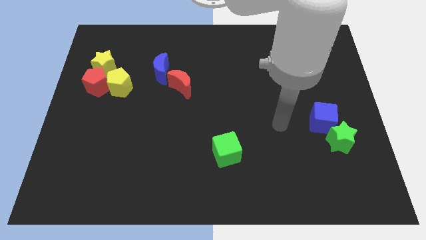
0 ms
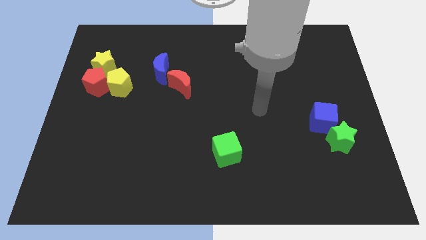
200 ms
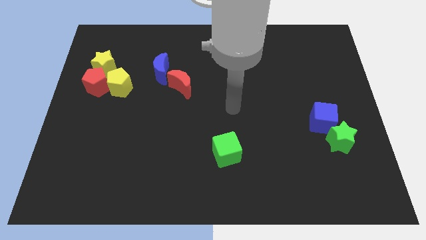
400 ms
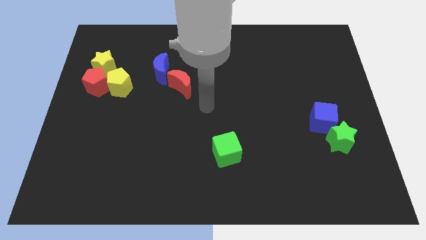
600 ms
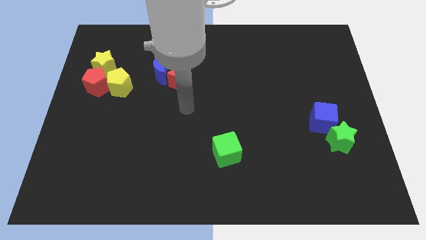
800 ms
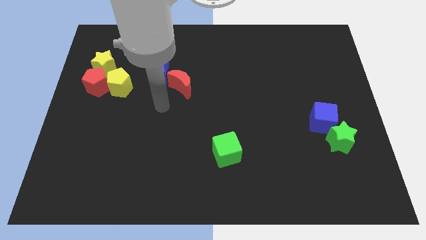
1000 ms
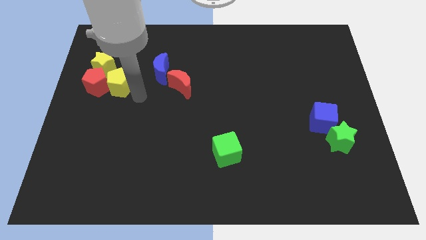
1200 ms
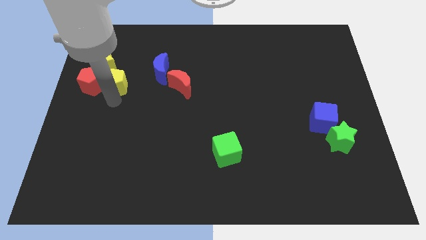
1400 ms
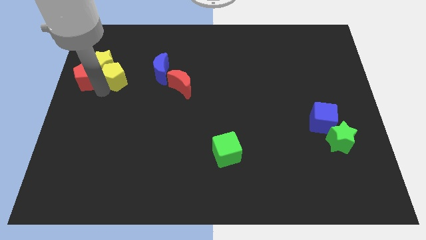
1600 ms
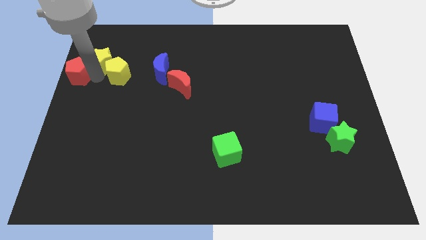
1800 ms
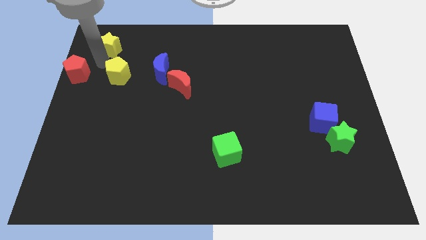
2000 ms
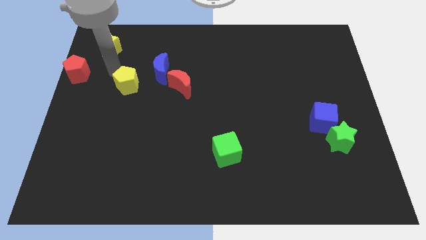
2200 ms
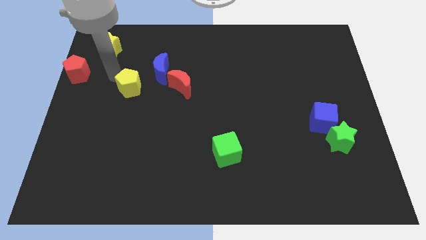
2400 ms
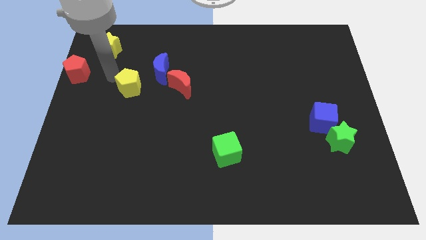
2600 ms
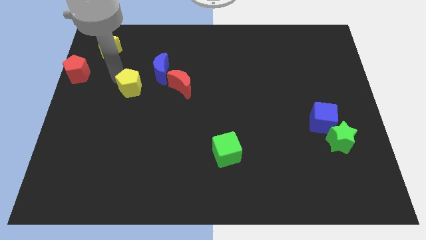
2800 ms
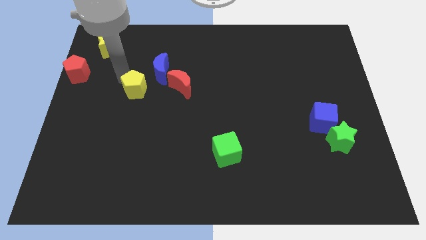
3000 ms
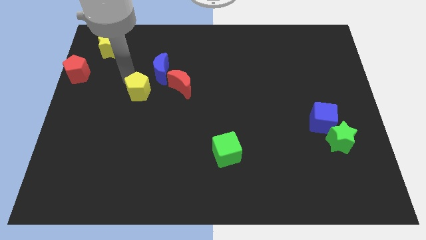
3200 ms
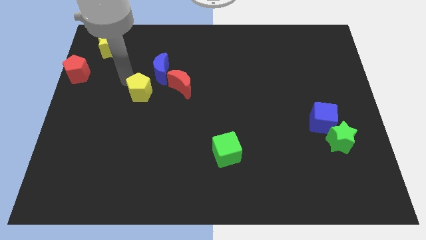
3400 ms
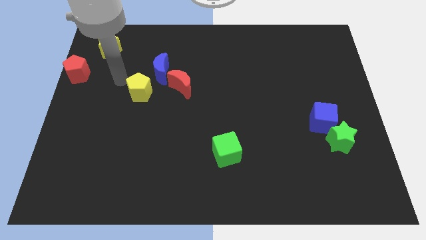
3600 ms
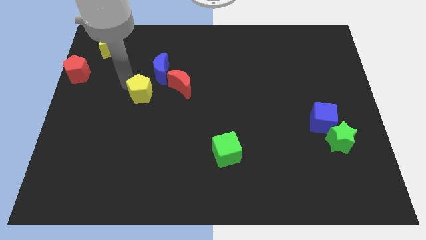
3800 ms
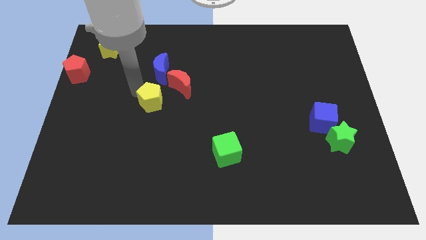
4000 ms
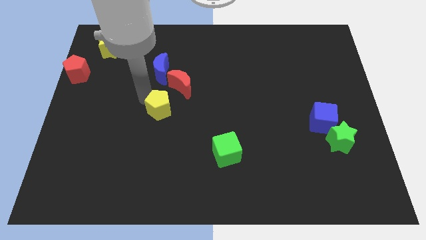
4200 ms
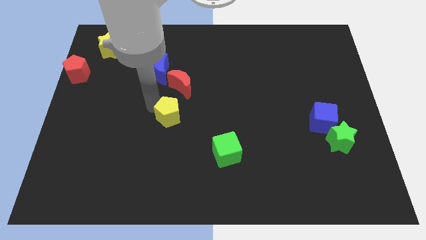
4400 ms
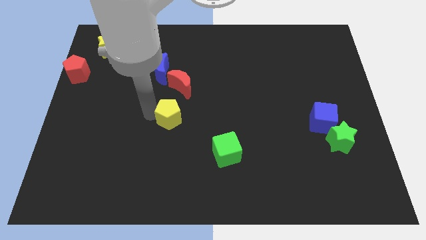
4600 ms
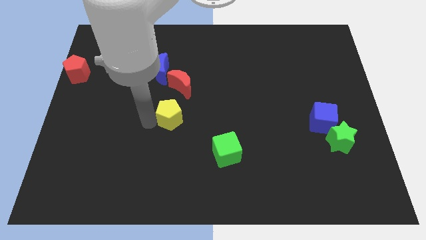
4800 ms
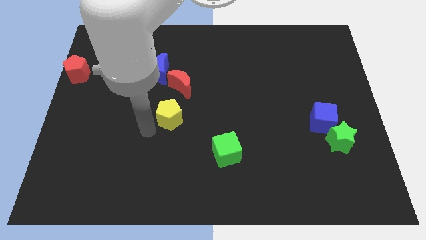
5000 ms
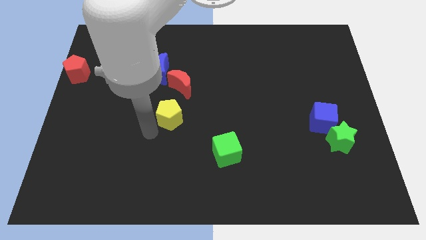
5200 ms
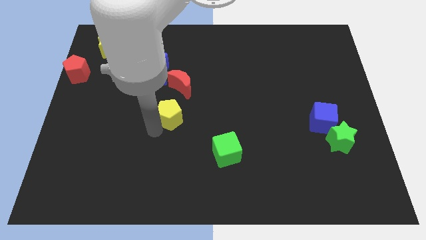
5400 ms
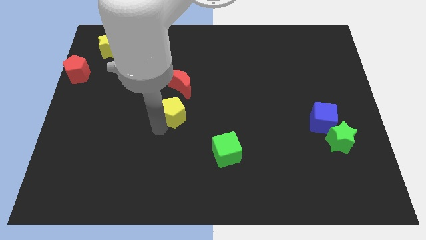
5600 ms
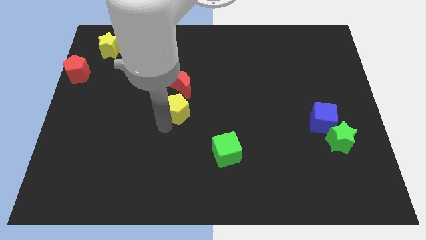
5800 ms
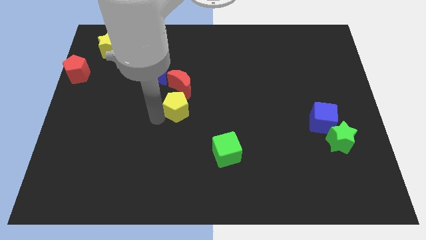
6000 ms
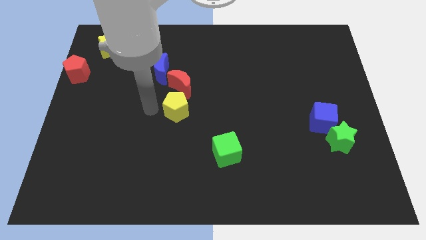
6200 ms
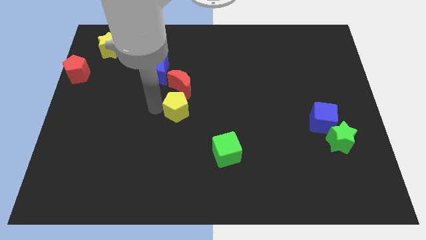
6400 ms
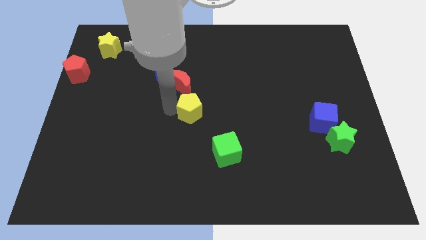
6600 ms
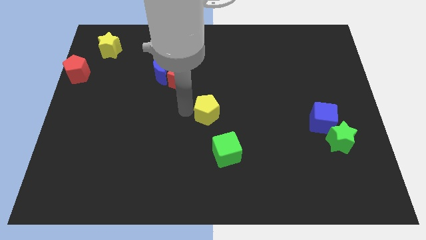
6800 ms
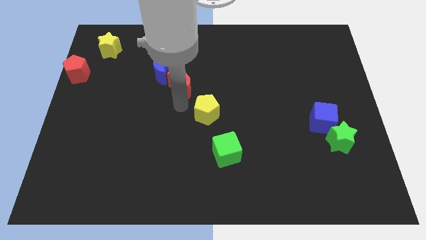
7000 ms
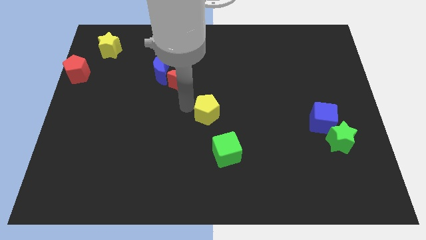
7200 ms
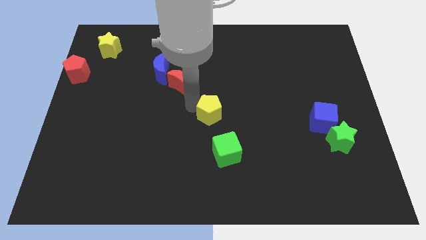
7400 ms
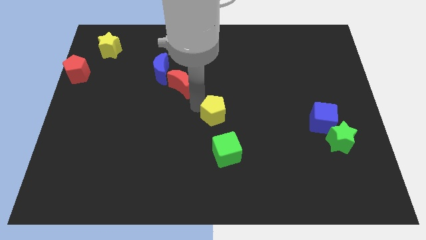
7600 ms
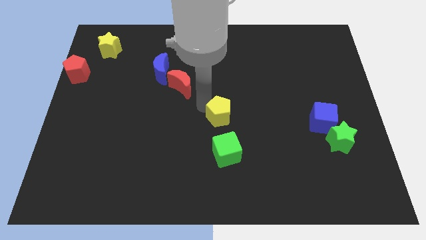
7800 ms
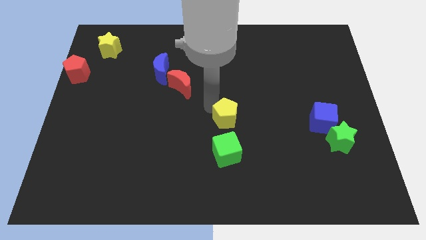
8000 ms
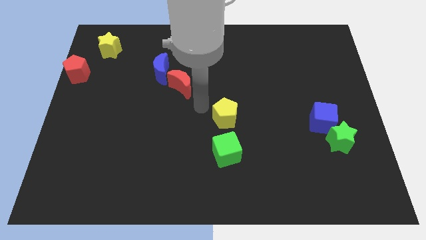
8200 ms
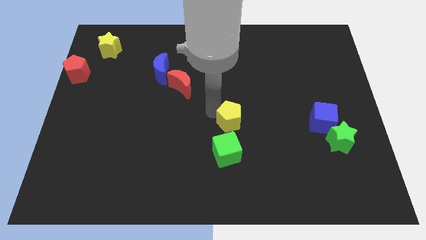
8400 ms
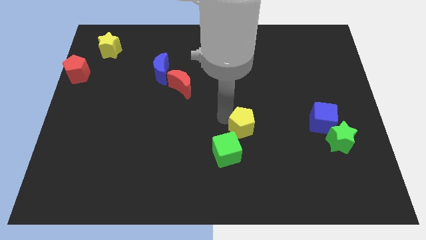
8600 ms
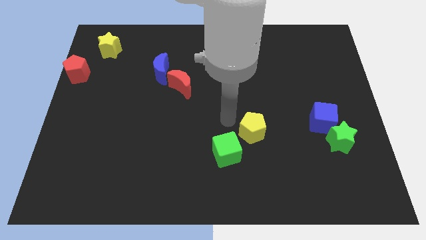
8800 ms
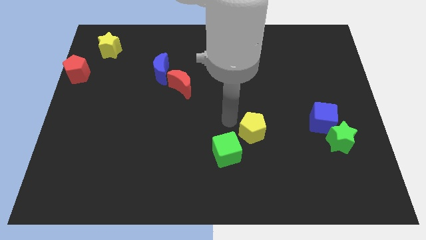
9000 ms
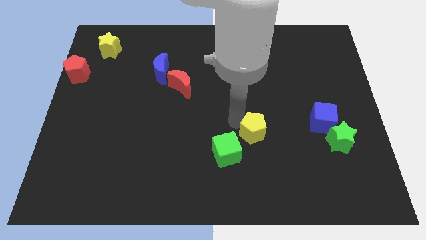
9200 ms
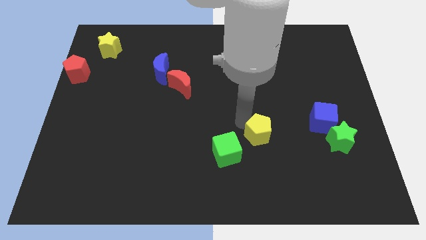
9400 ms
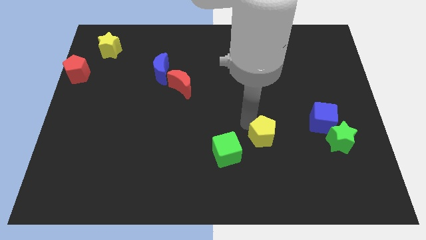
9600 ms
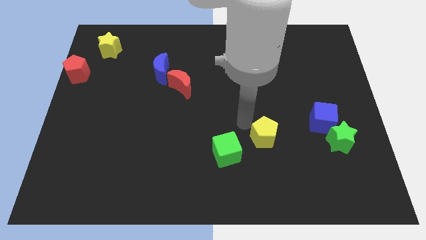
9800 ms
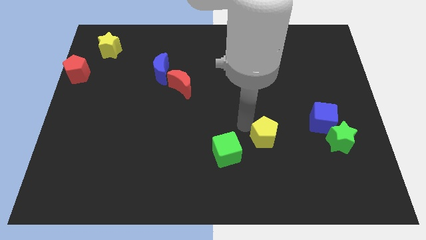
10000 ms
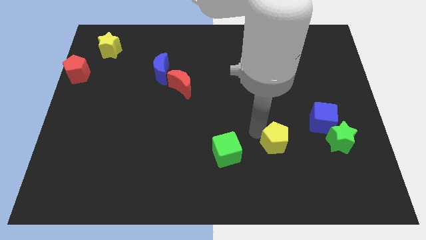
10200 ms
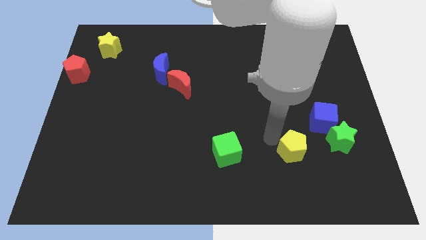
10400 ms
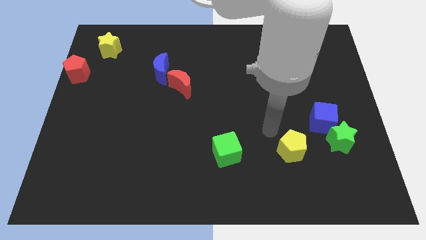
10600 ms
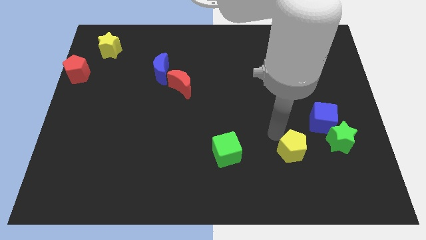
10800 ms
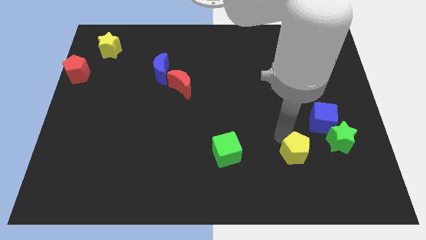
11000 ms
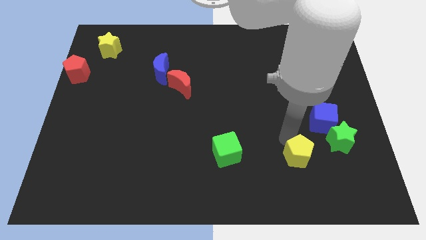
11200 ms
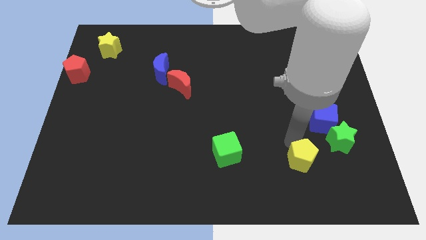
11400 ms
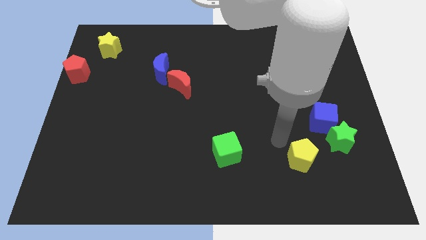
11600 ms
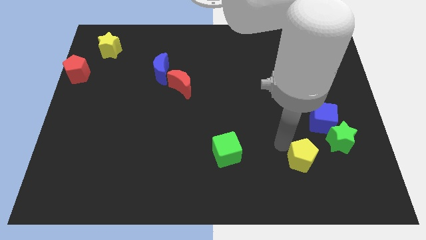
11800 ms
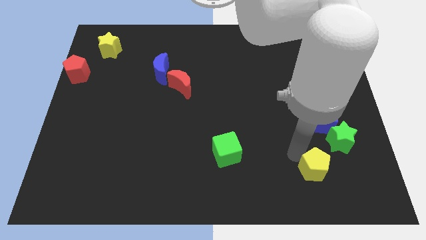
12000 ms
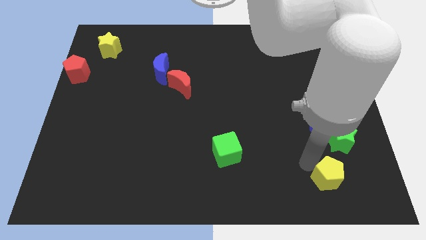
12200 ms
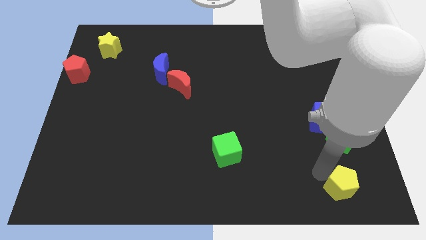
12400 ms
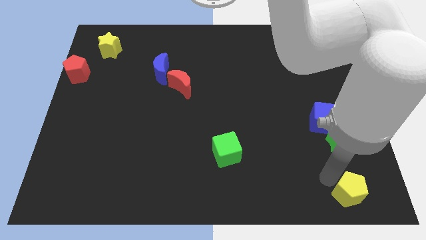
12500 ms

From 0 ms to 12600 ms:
slide the yellow pentagon to the bottom right

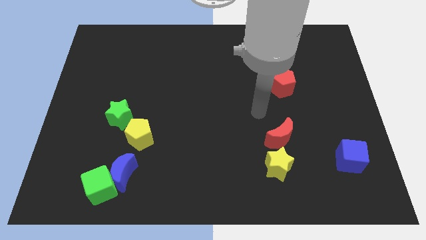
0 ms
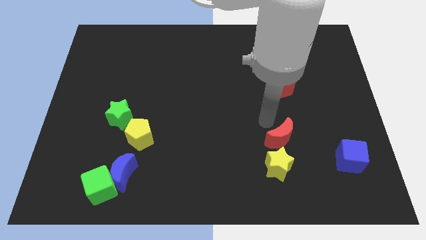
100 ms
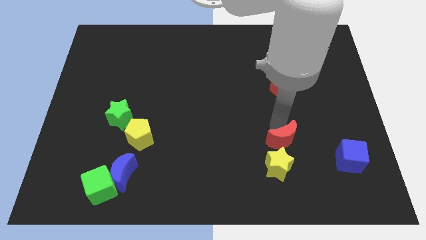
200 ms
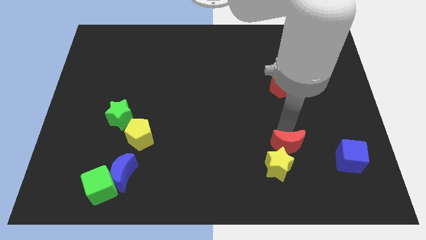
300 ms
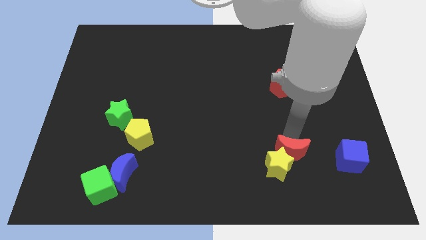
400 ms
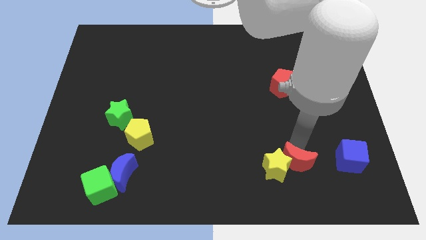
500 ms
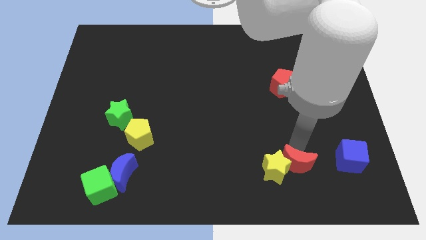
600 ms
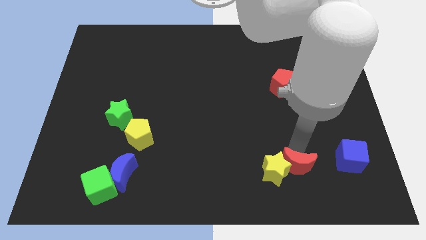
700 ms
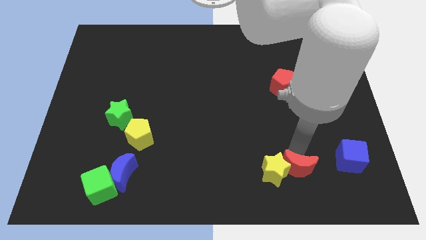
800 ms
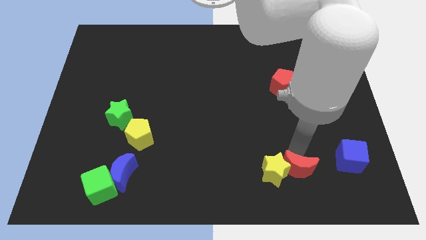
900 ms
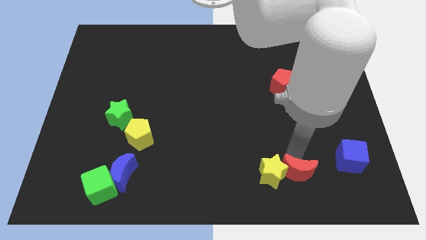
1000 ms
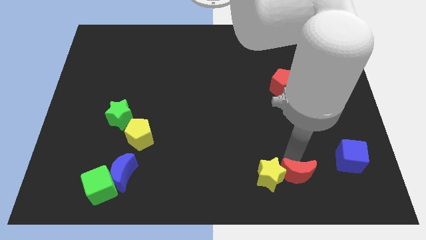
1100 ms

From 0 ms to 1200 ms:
put the yellow star to the bottom side
